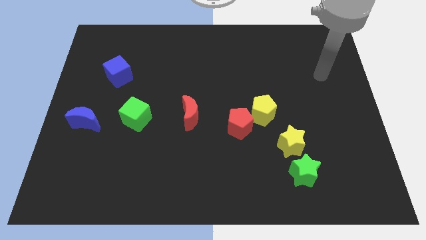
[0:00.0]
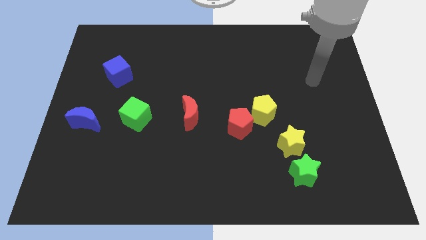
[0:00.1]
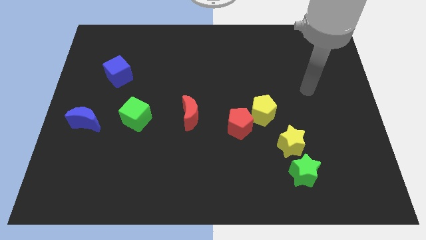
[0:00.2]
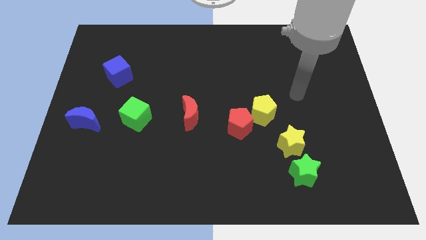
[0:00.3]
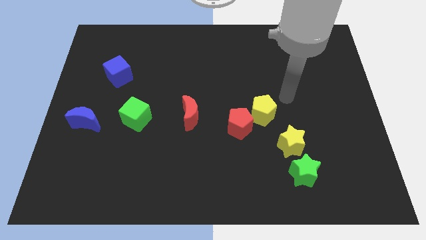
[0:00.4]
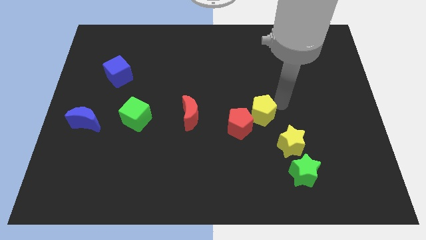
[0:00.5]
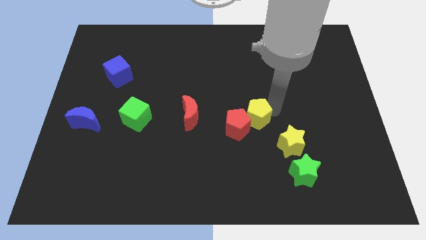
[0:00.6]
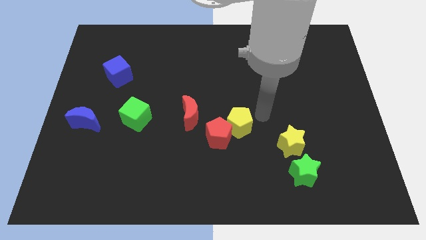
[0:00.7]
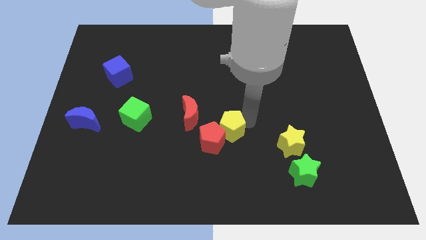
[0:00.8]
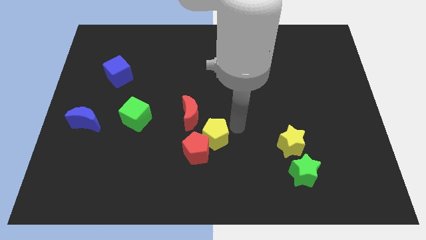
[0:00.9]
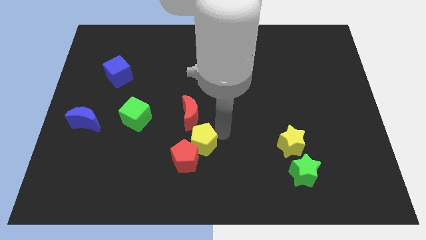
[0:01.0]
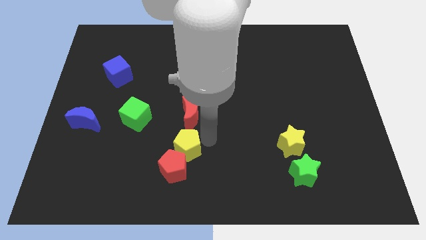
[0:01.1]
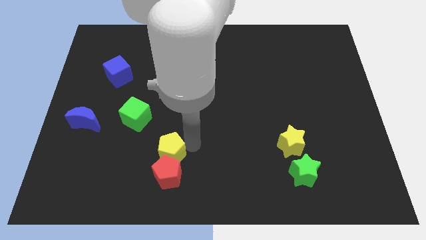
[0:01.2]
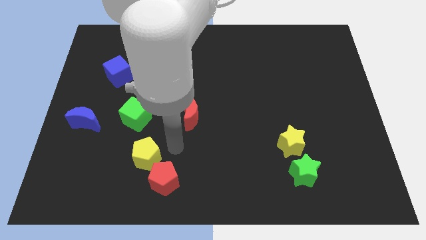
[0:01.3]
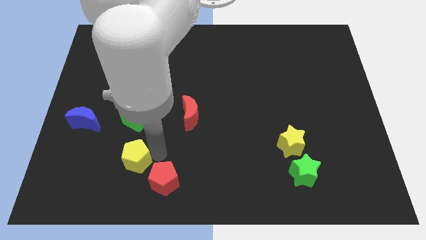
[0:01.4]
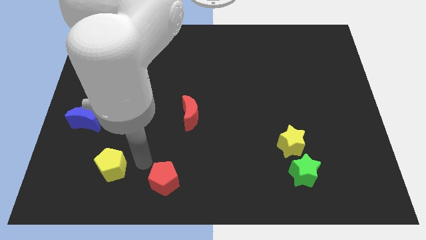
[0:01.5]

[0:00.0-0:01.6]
move the red pentagon away from the yellow pentagon

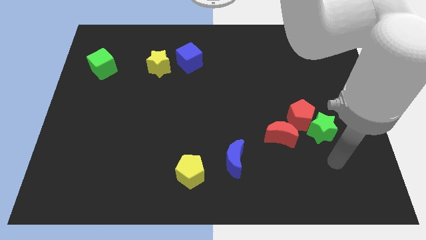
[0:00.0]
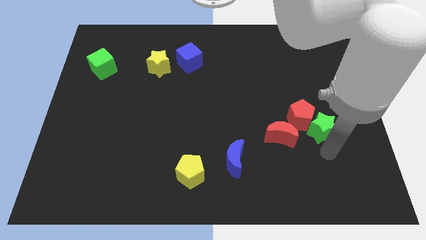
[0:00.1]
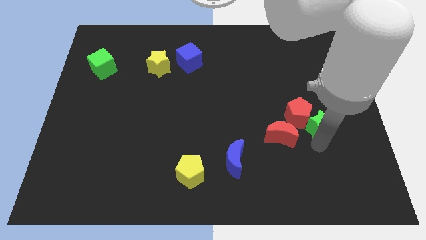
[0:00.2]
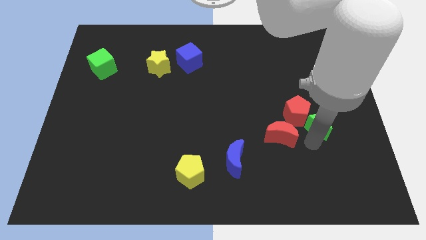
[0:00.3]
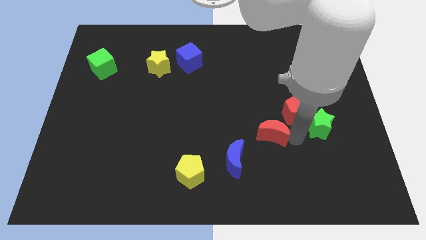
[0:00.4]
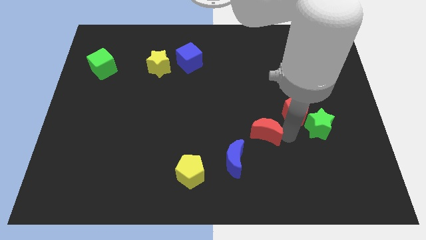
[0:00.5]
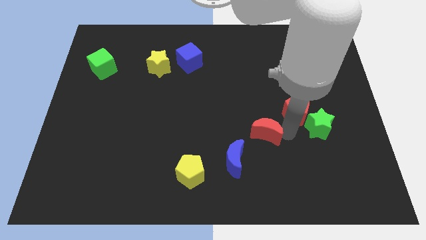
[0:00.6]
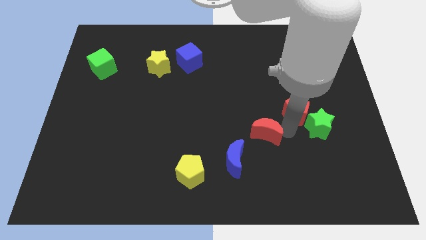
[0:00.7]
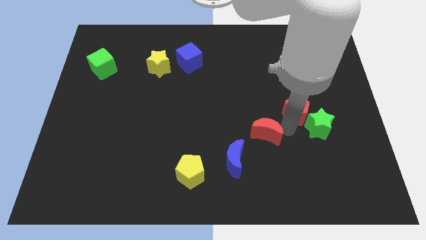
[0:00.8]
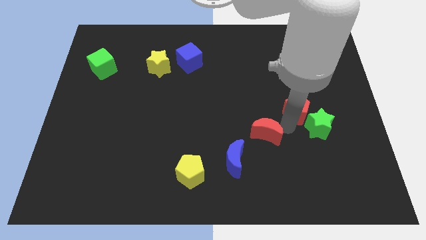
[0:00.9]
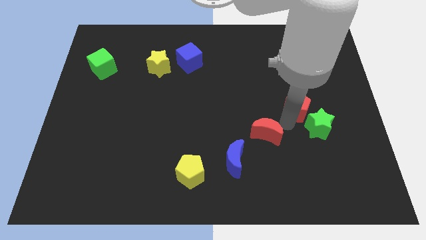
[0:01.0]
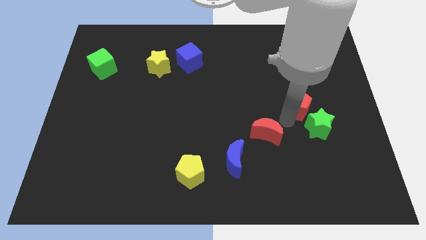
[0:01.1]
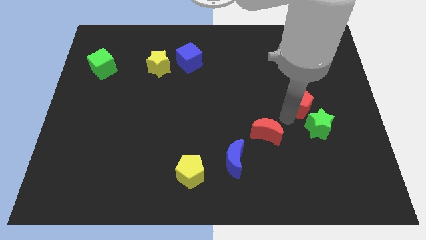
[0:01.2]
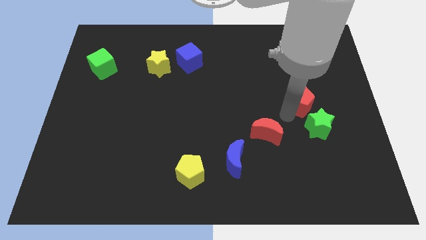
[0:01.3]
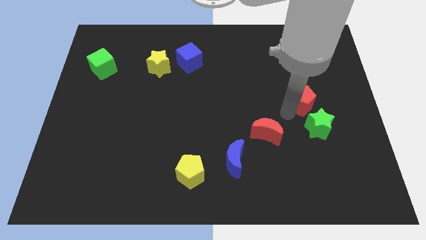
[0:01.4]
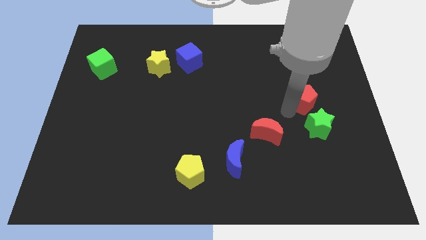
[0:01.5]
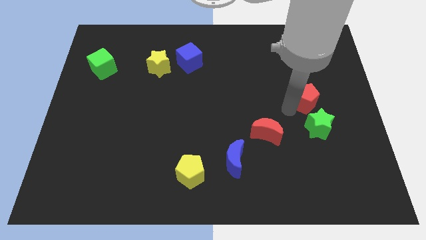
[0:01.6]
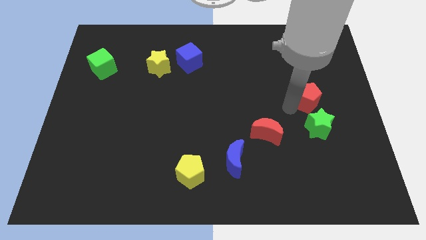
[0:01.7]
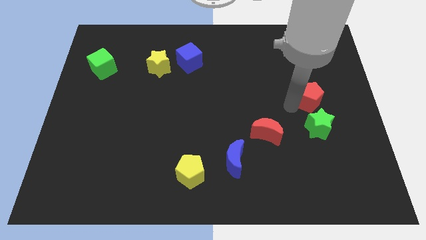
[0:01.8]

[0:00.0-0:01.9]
separate the red pentagon from the green star and red moon

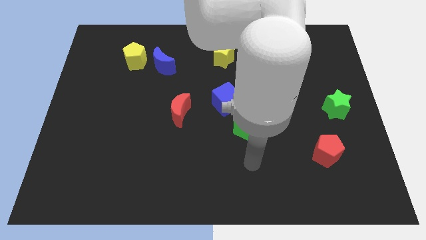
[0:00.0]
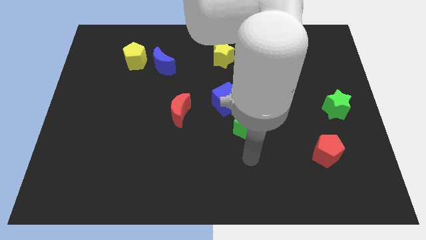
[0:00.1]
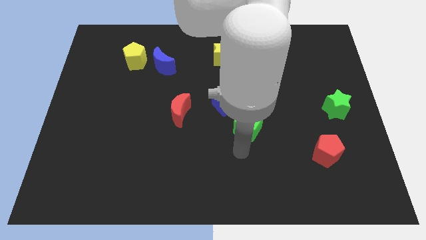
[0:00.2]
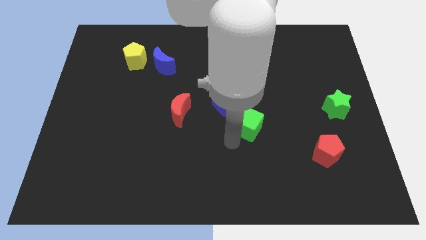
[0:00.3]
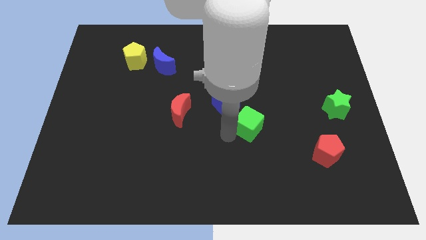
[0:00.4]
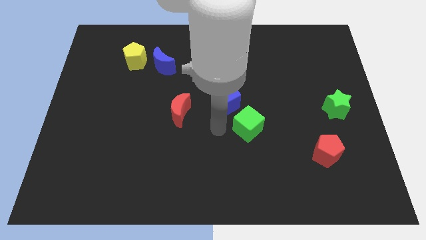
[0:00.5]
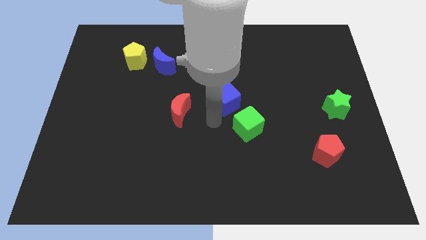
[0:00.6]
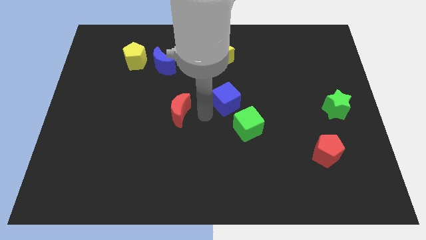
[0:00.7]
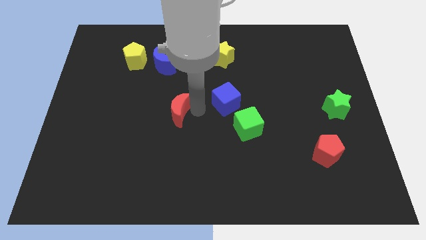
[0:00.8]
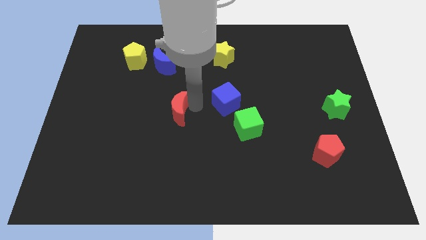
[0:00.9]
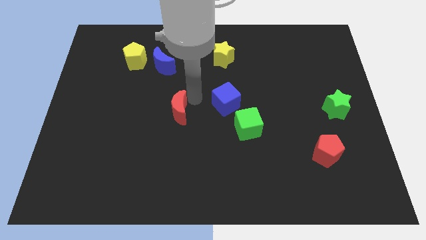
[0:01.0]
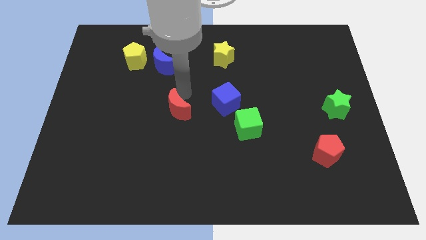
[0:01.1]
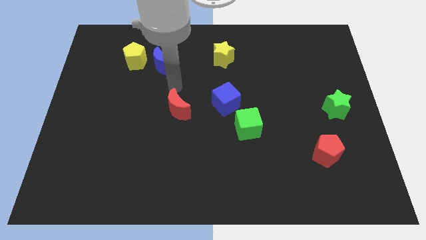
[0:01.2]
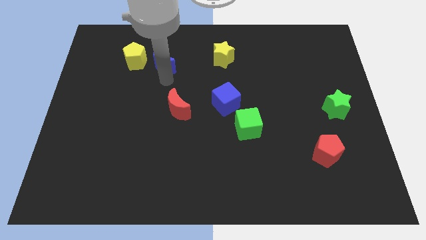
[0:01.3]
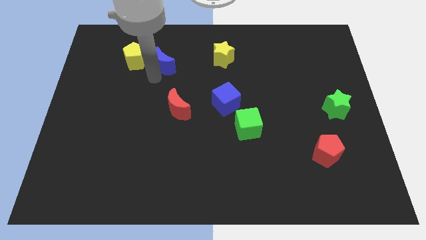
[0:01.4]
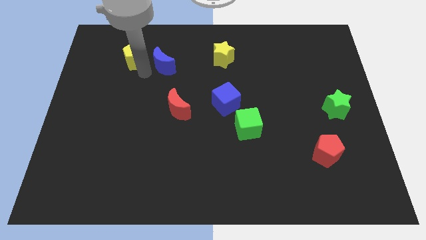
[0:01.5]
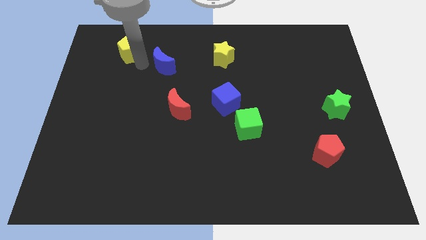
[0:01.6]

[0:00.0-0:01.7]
move the blue moon away from the yellow pentagon

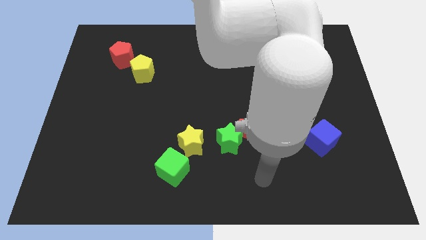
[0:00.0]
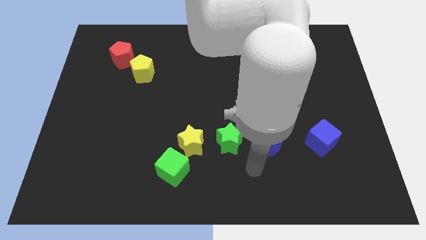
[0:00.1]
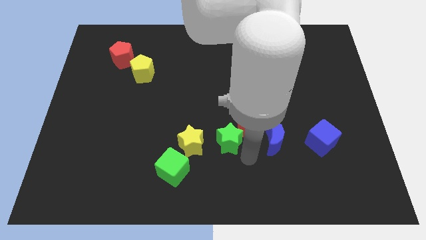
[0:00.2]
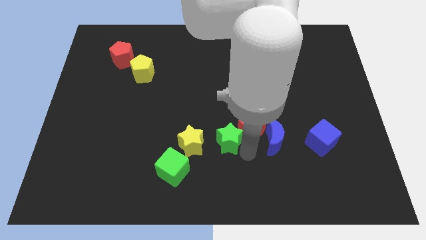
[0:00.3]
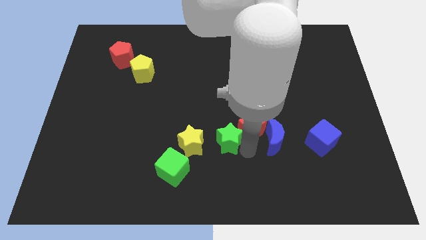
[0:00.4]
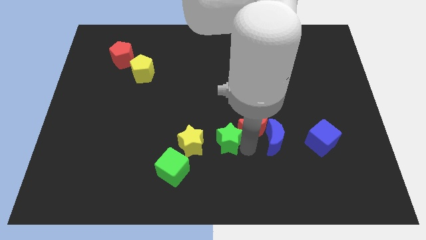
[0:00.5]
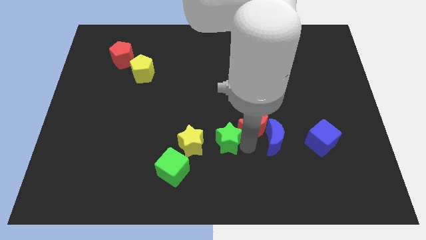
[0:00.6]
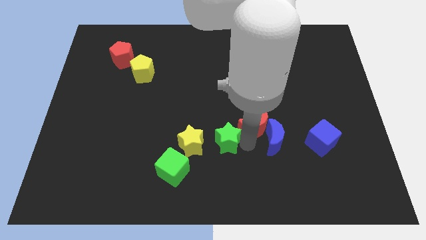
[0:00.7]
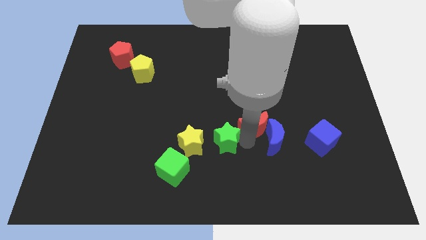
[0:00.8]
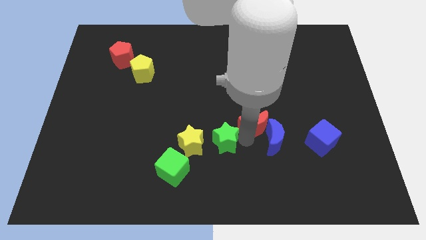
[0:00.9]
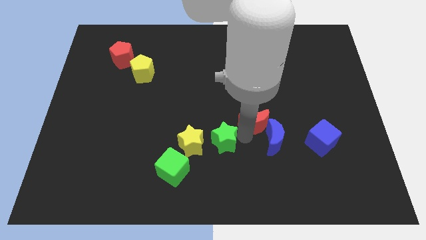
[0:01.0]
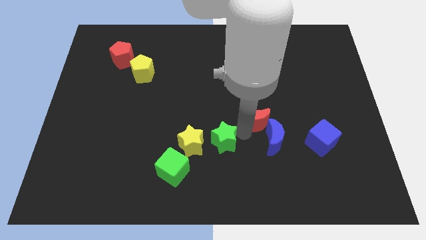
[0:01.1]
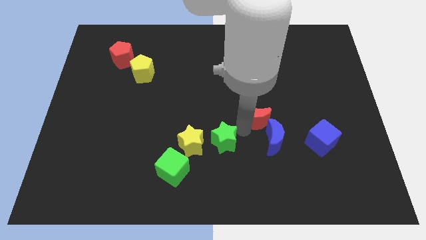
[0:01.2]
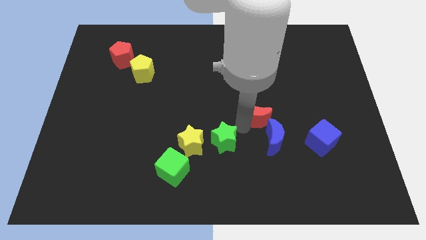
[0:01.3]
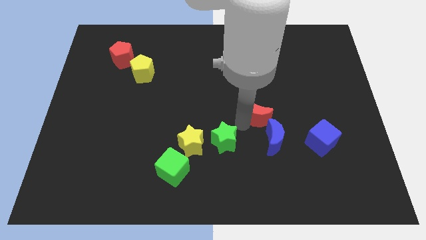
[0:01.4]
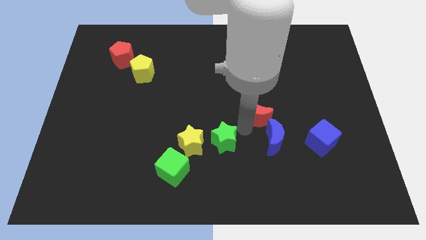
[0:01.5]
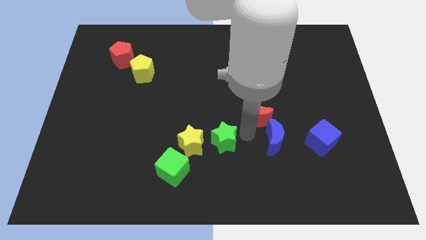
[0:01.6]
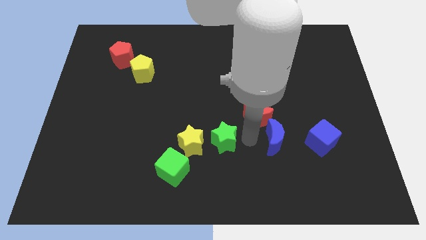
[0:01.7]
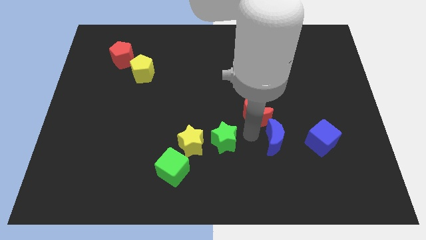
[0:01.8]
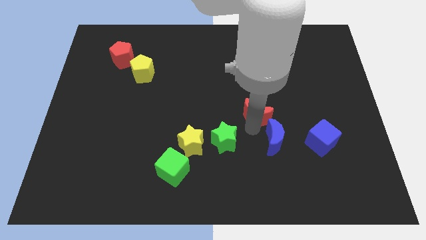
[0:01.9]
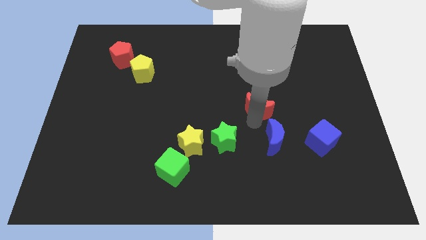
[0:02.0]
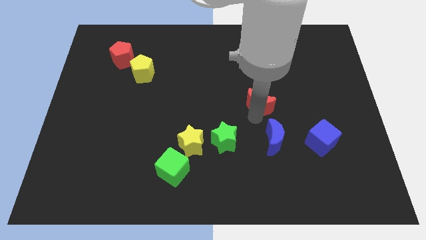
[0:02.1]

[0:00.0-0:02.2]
move the red moon away from the blue moon and green star

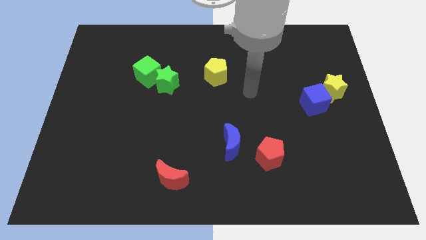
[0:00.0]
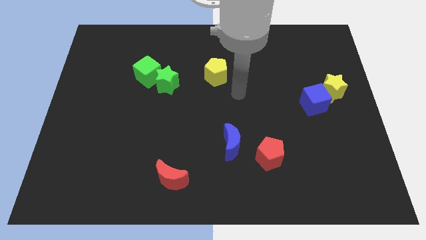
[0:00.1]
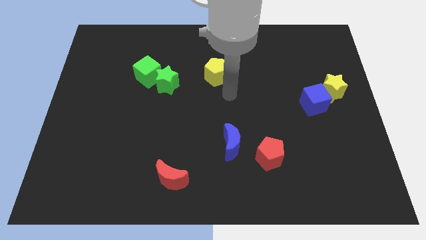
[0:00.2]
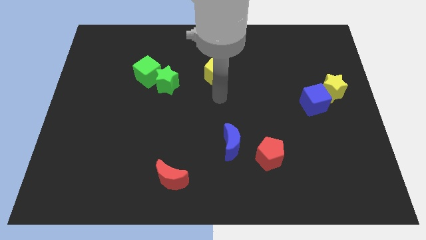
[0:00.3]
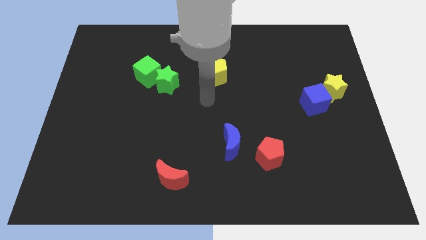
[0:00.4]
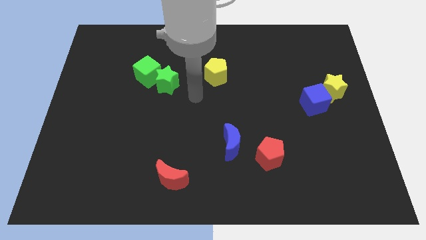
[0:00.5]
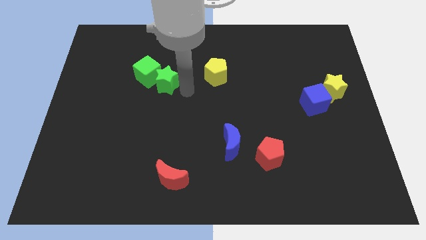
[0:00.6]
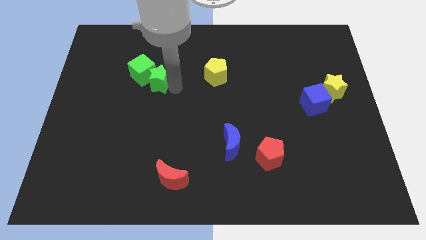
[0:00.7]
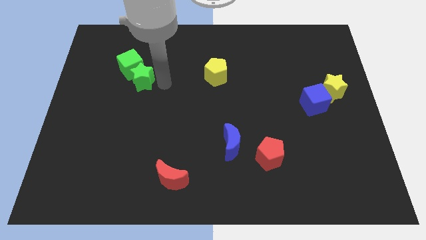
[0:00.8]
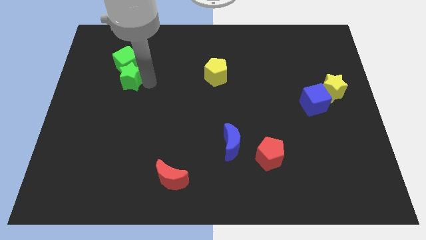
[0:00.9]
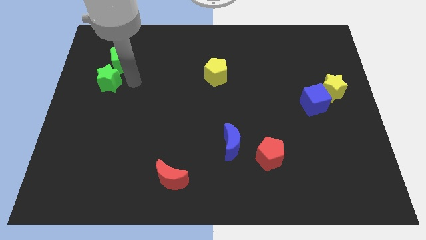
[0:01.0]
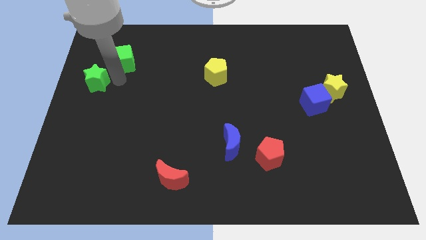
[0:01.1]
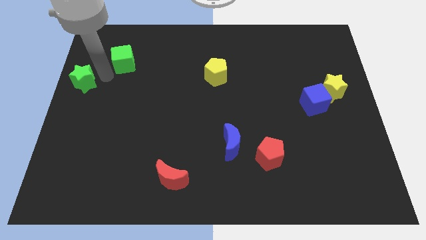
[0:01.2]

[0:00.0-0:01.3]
move the green cube away from the green star

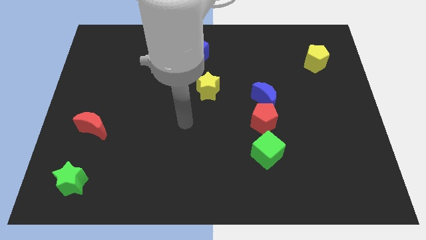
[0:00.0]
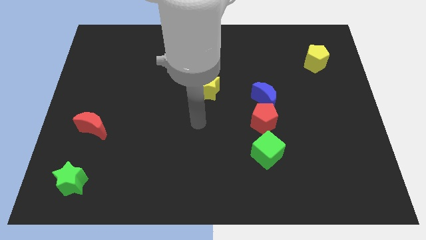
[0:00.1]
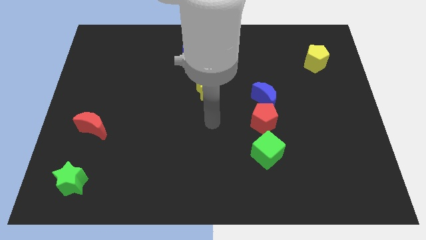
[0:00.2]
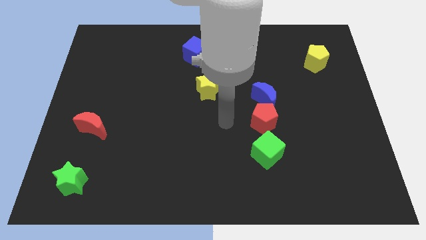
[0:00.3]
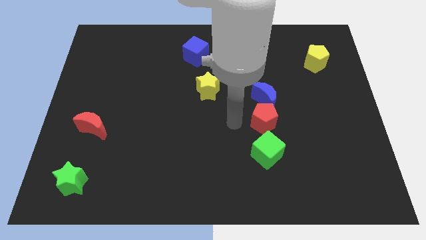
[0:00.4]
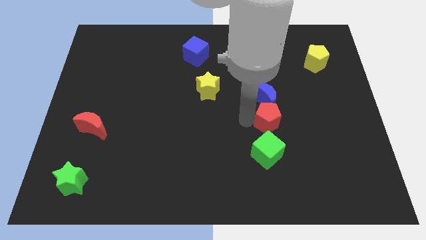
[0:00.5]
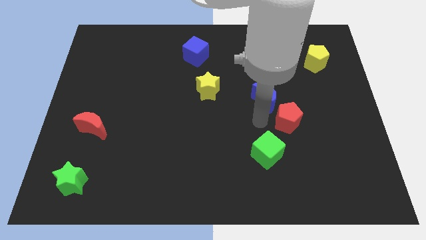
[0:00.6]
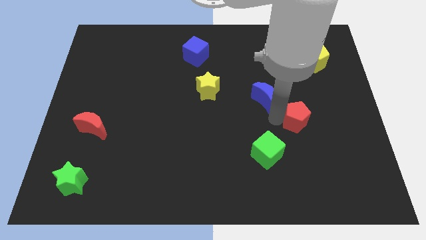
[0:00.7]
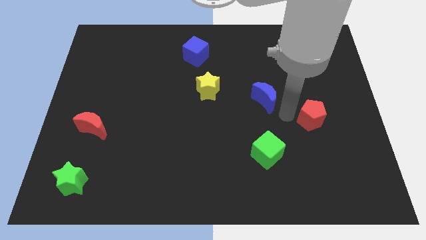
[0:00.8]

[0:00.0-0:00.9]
move the blue moon away from the red pentagon
